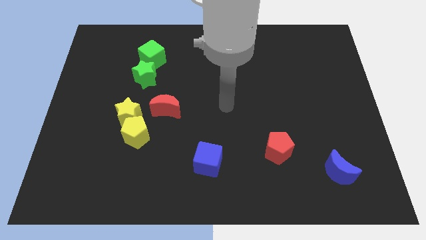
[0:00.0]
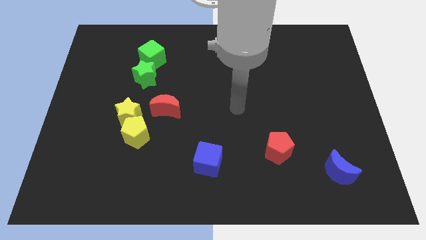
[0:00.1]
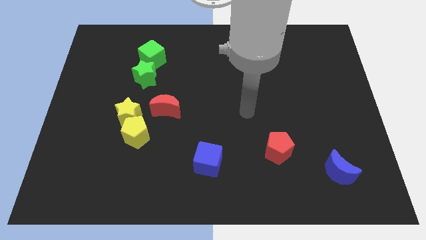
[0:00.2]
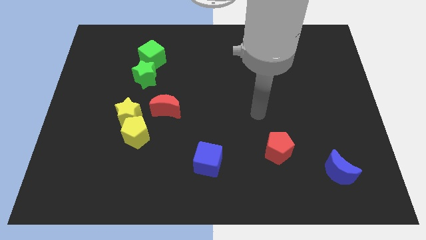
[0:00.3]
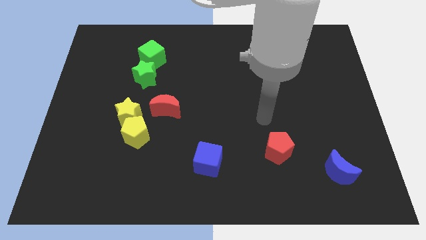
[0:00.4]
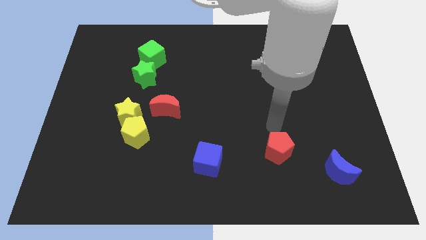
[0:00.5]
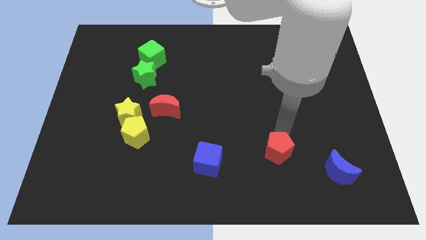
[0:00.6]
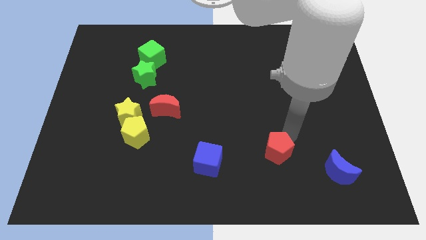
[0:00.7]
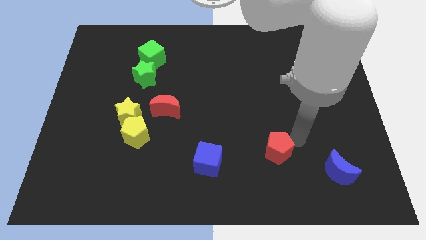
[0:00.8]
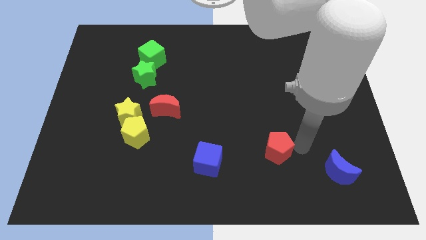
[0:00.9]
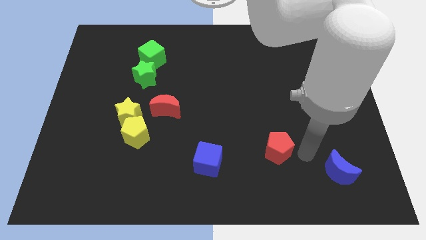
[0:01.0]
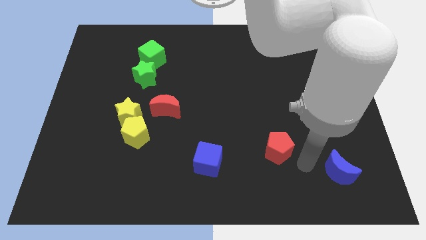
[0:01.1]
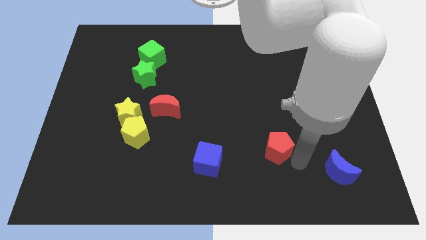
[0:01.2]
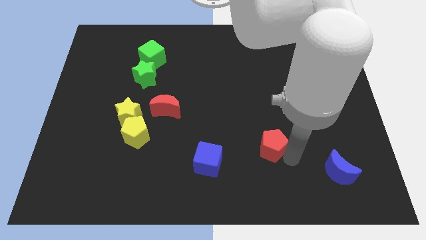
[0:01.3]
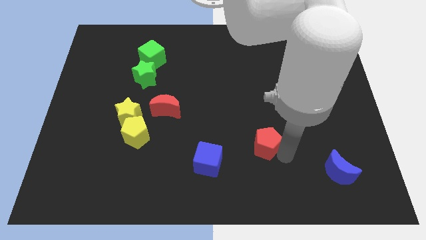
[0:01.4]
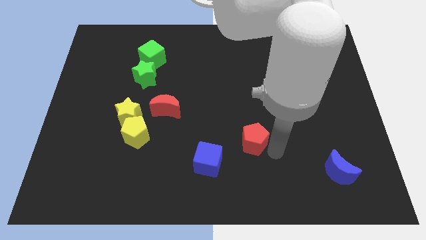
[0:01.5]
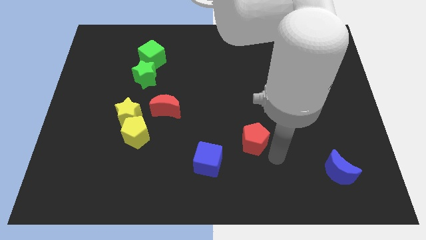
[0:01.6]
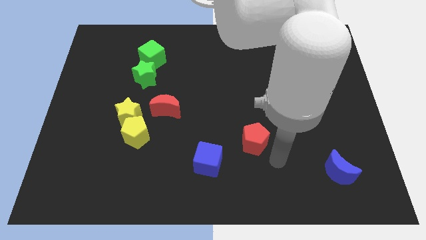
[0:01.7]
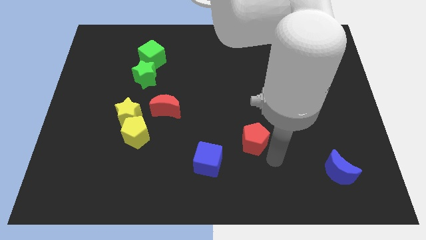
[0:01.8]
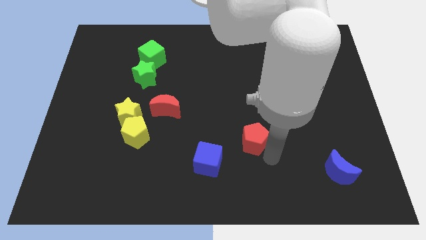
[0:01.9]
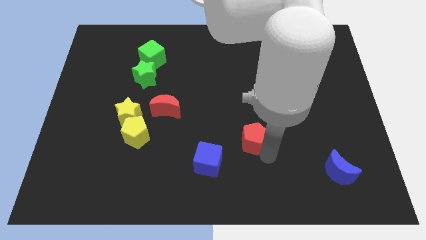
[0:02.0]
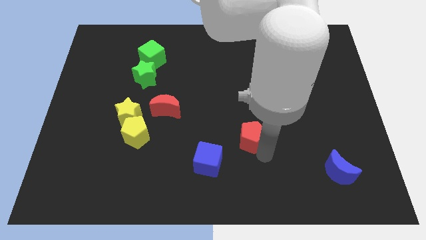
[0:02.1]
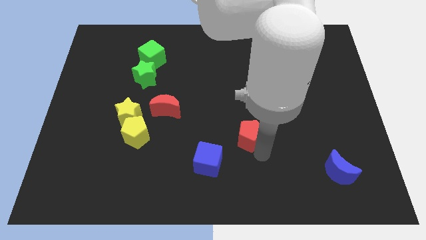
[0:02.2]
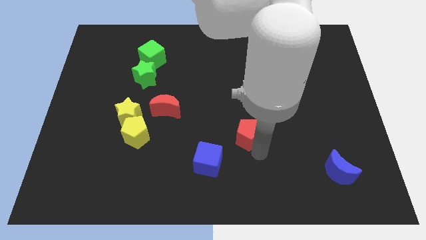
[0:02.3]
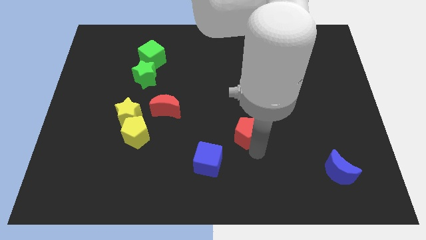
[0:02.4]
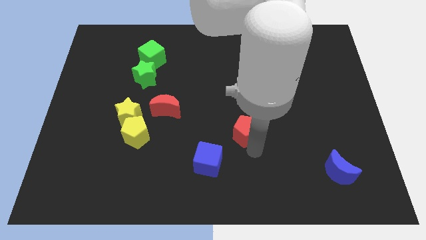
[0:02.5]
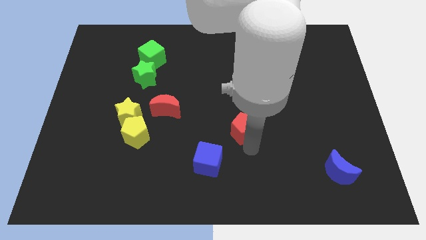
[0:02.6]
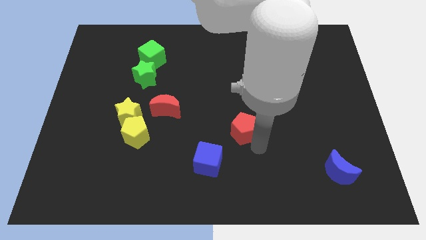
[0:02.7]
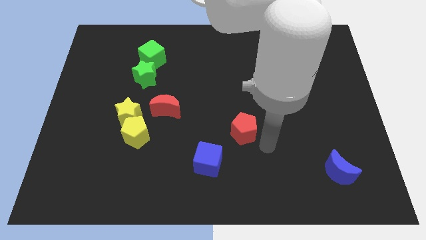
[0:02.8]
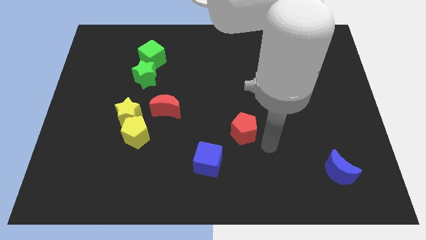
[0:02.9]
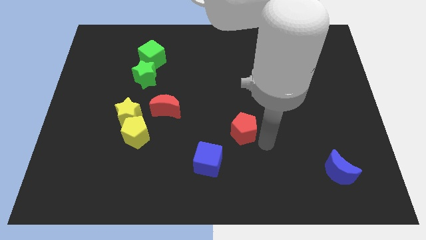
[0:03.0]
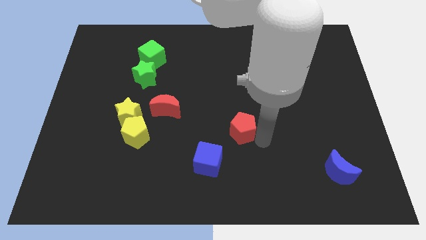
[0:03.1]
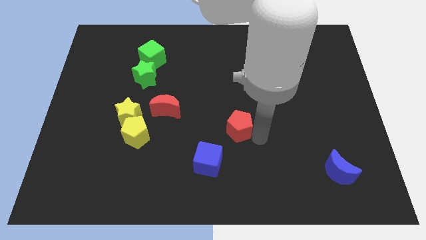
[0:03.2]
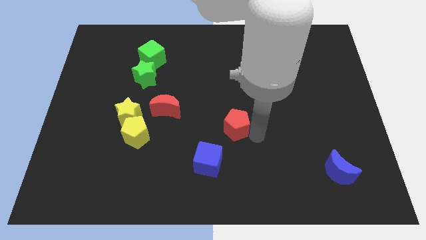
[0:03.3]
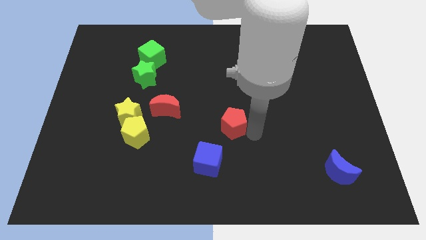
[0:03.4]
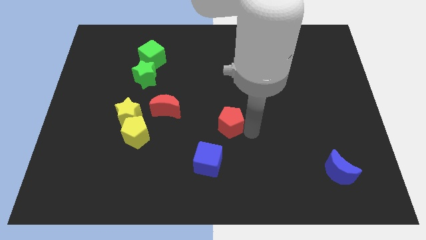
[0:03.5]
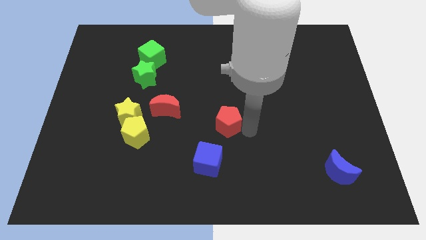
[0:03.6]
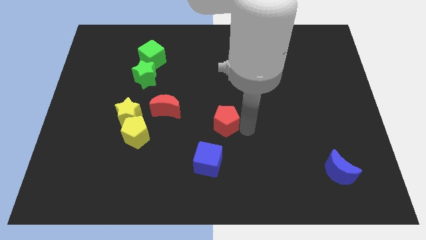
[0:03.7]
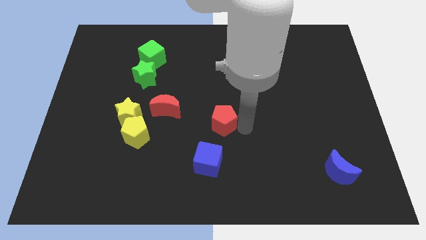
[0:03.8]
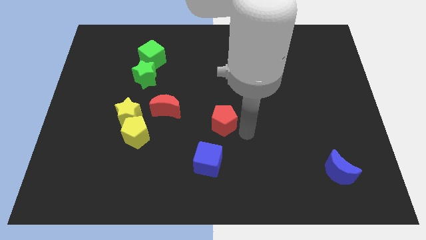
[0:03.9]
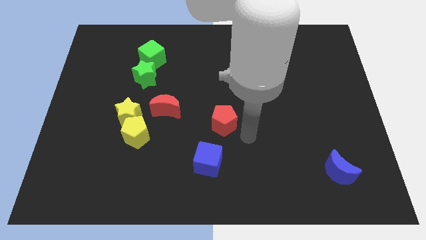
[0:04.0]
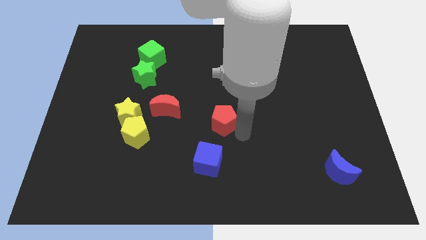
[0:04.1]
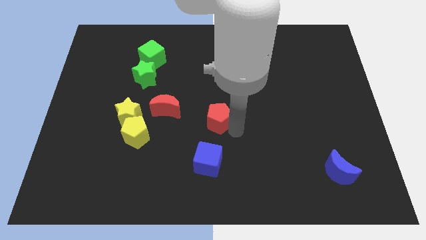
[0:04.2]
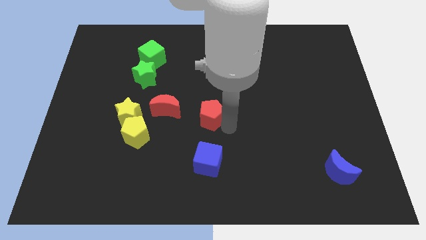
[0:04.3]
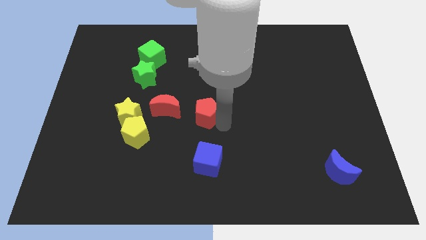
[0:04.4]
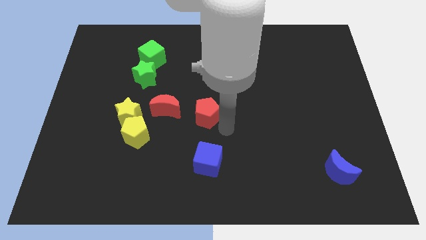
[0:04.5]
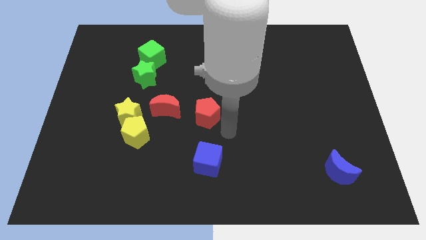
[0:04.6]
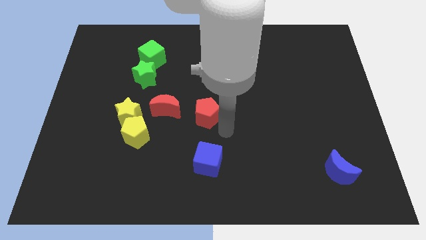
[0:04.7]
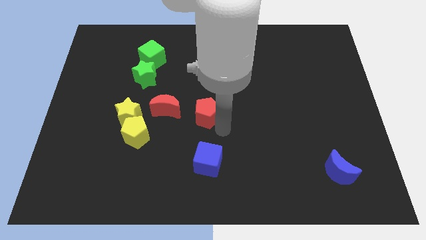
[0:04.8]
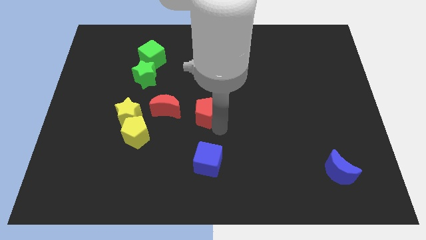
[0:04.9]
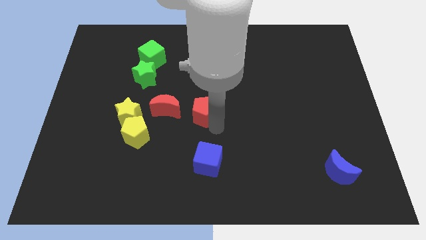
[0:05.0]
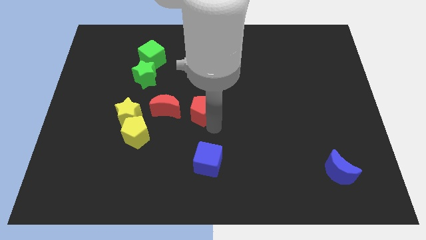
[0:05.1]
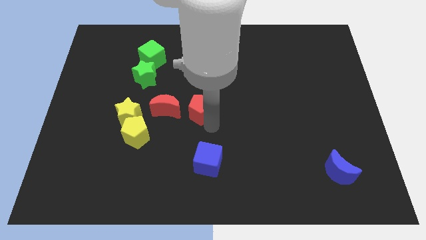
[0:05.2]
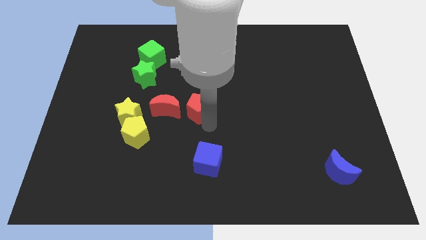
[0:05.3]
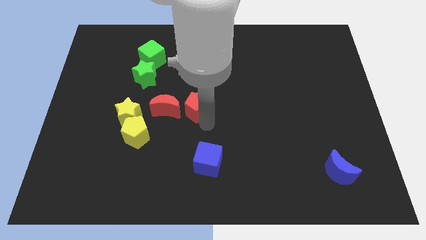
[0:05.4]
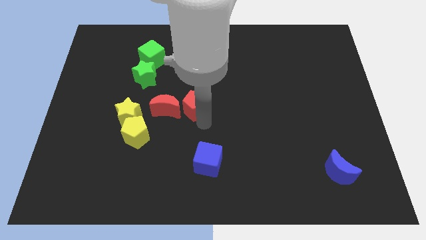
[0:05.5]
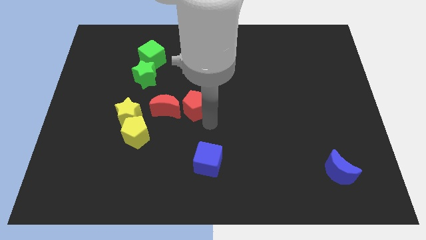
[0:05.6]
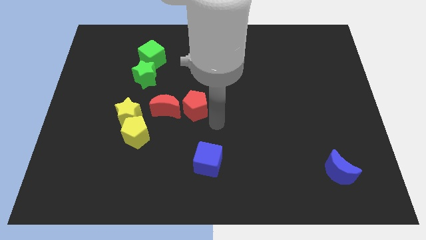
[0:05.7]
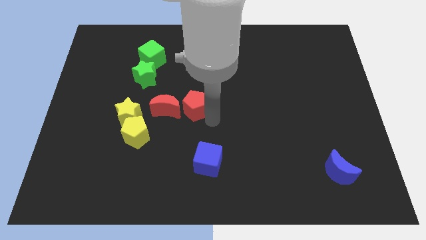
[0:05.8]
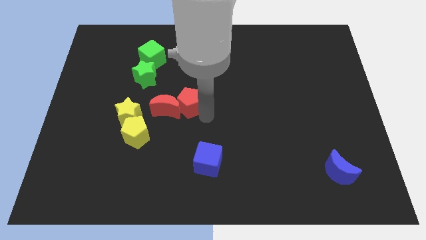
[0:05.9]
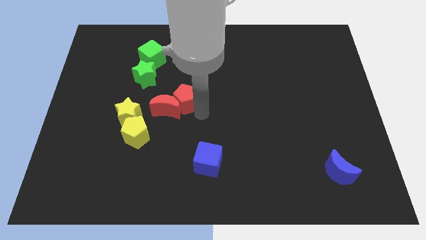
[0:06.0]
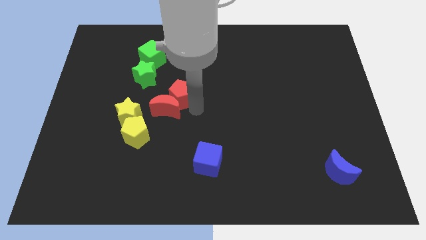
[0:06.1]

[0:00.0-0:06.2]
push the red pentagon to the bottom right side of the green star

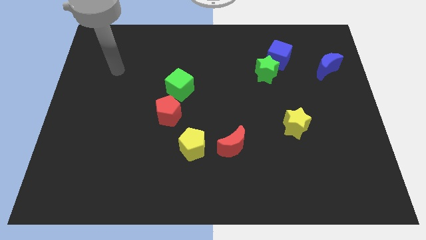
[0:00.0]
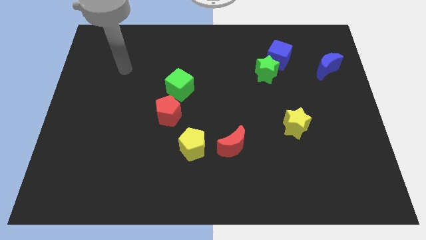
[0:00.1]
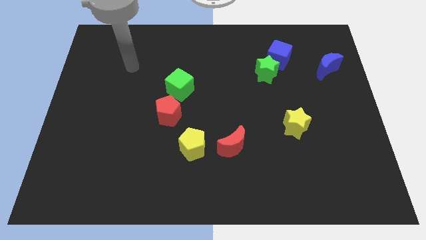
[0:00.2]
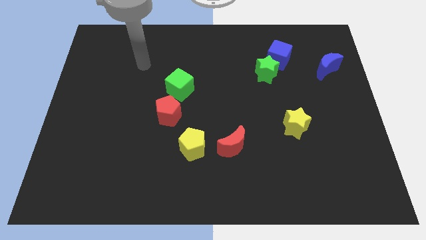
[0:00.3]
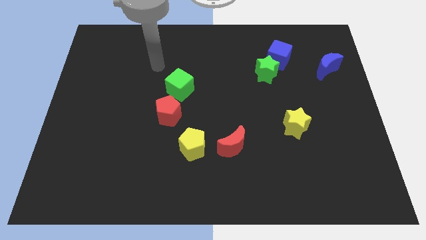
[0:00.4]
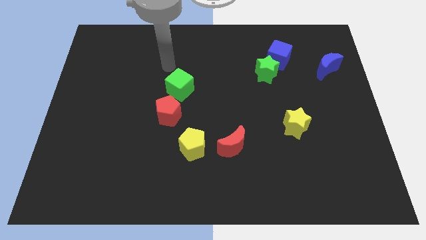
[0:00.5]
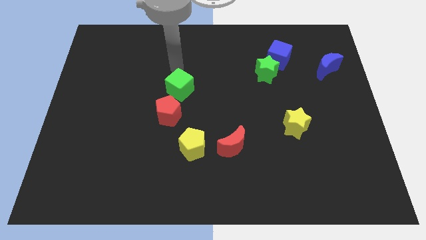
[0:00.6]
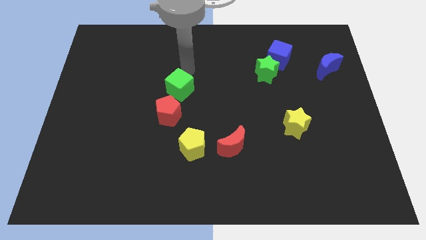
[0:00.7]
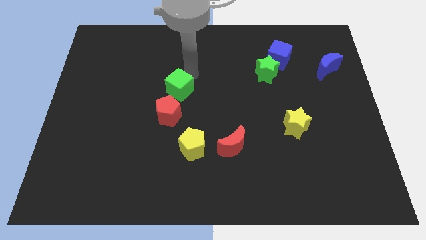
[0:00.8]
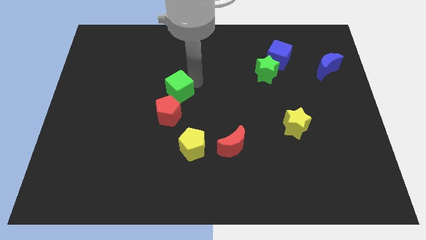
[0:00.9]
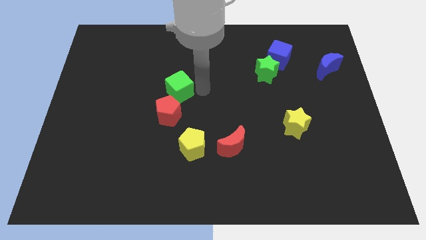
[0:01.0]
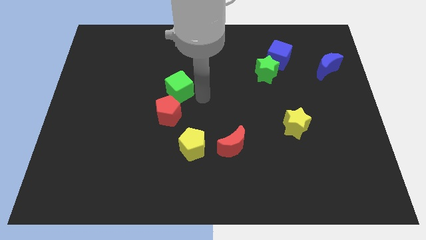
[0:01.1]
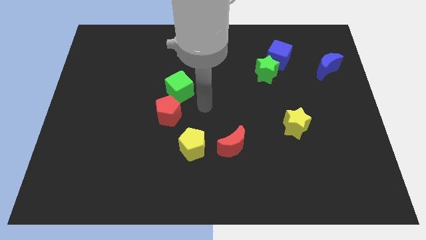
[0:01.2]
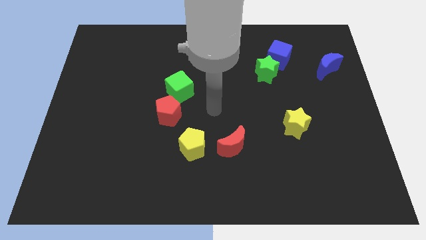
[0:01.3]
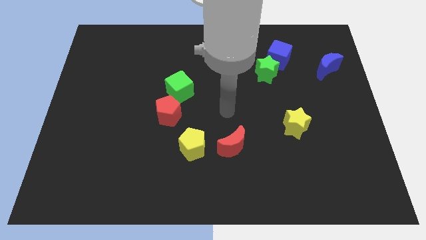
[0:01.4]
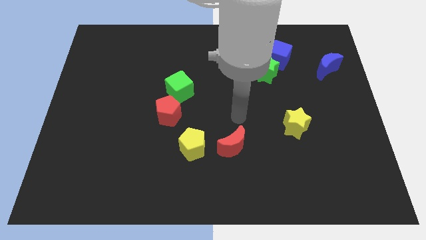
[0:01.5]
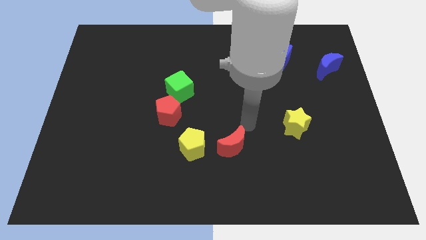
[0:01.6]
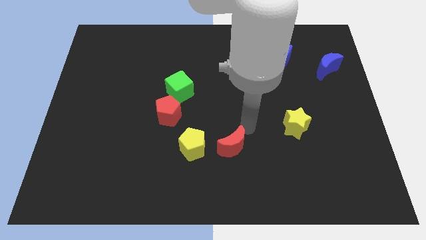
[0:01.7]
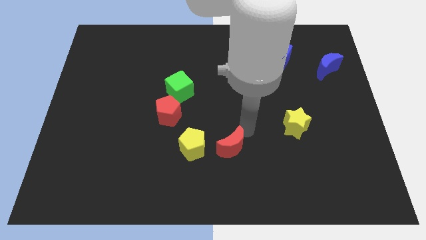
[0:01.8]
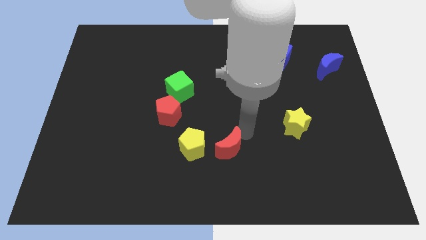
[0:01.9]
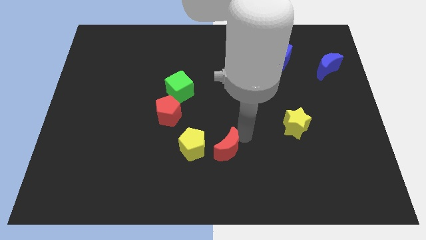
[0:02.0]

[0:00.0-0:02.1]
put the red moon to the bottom right side of the yellow pentagon
